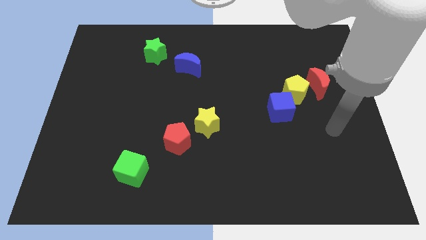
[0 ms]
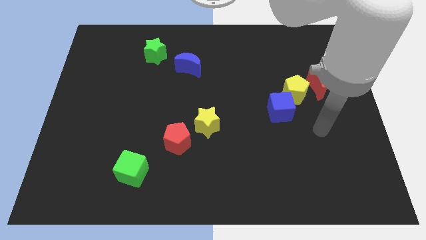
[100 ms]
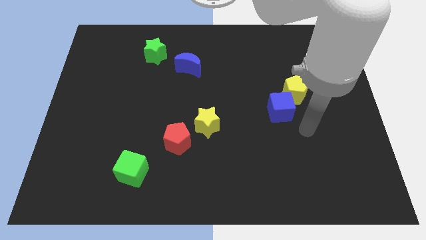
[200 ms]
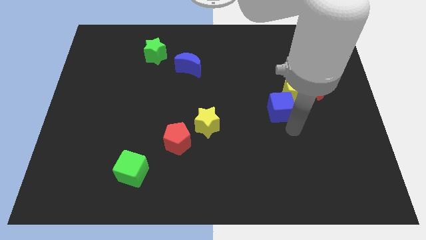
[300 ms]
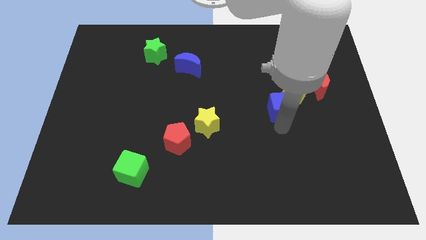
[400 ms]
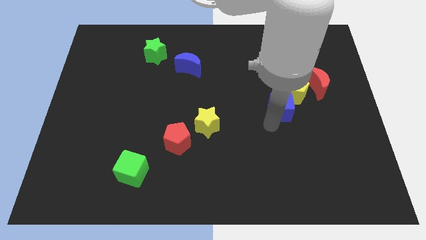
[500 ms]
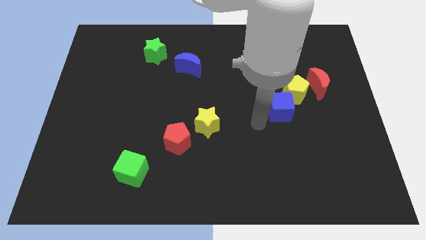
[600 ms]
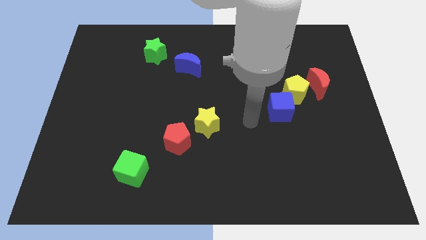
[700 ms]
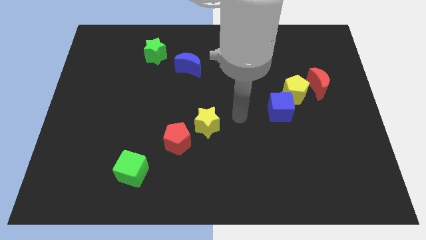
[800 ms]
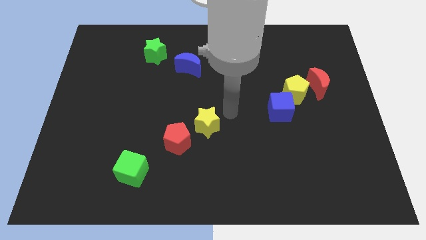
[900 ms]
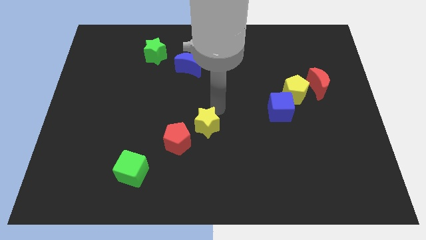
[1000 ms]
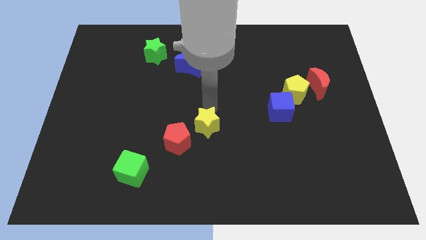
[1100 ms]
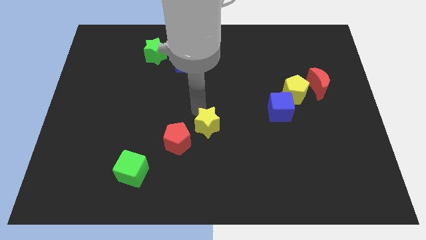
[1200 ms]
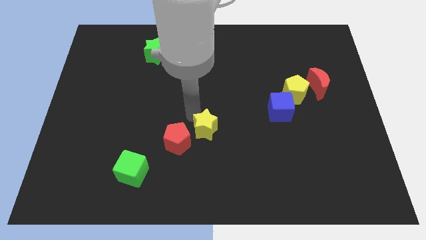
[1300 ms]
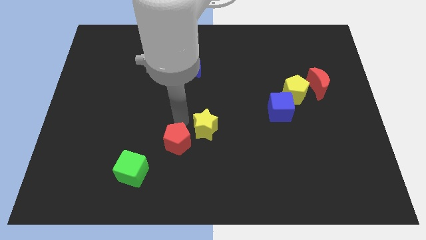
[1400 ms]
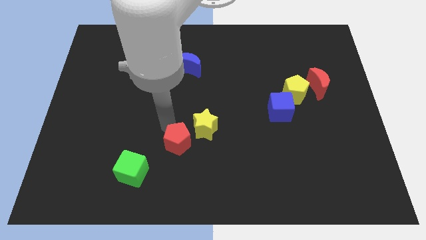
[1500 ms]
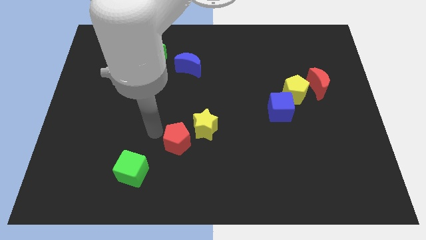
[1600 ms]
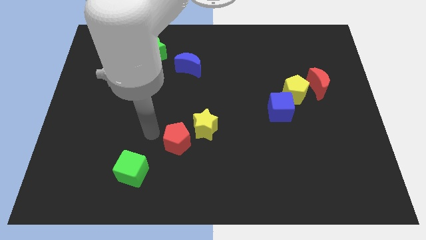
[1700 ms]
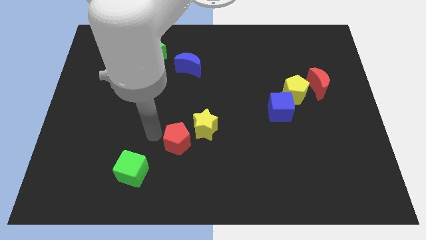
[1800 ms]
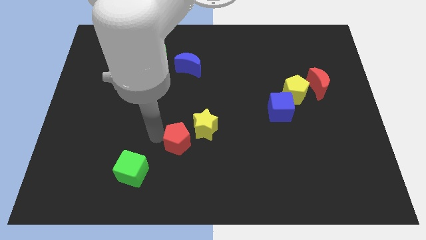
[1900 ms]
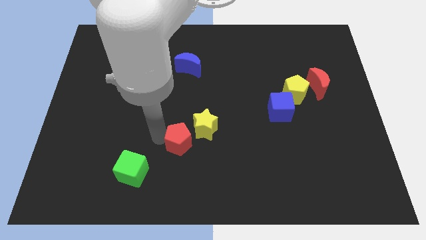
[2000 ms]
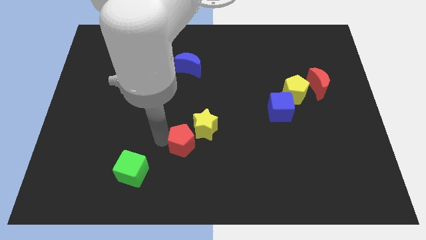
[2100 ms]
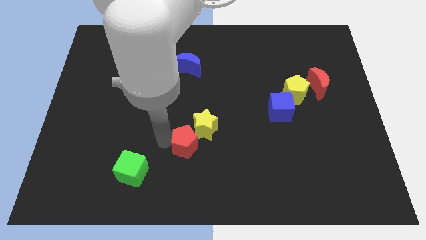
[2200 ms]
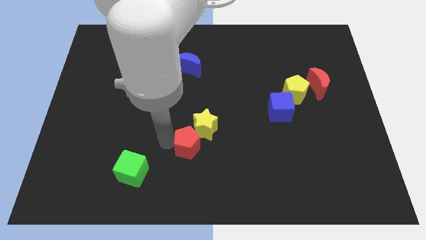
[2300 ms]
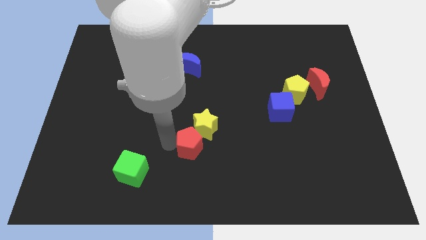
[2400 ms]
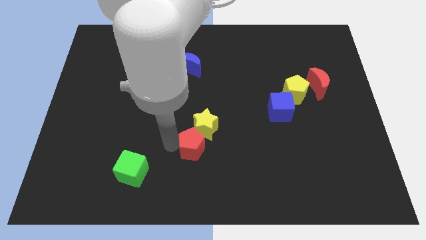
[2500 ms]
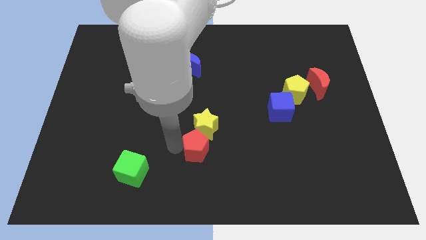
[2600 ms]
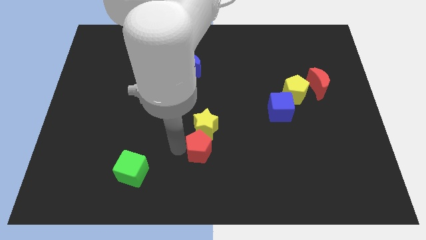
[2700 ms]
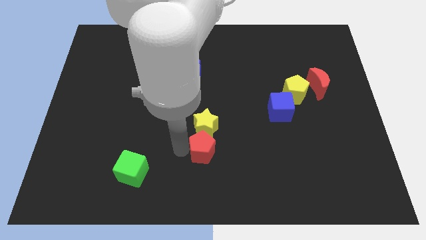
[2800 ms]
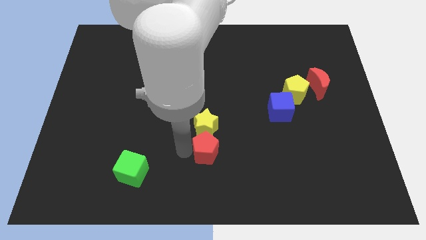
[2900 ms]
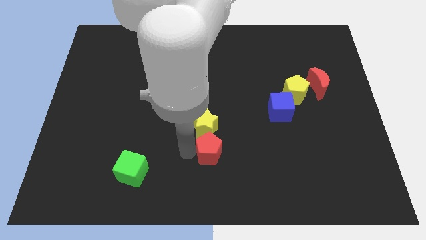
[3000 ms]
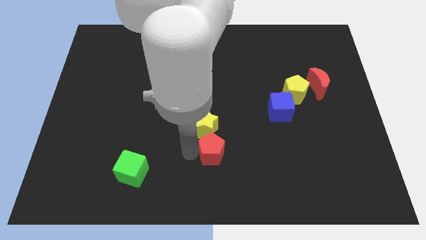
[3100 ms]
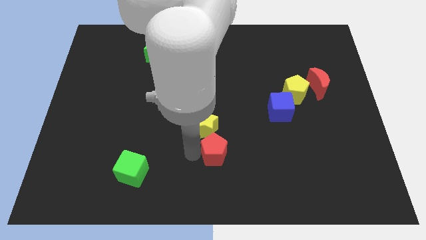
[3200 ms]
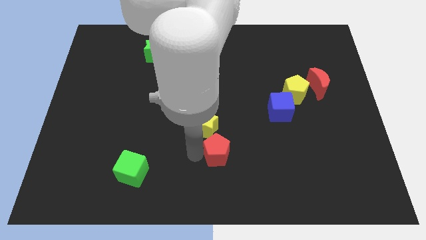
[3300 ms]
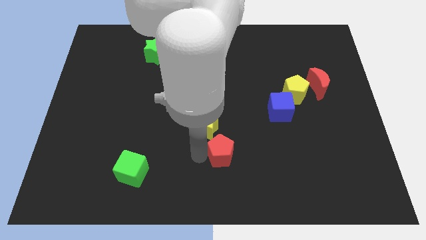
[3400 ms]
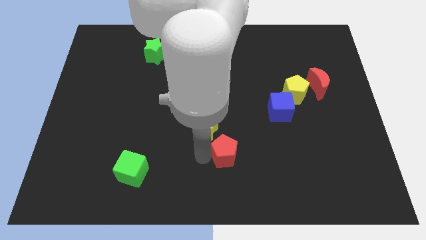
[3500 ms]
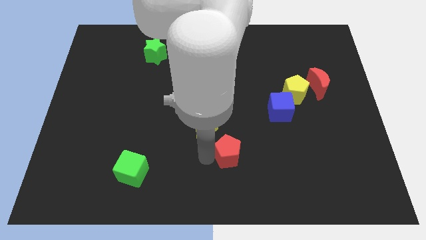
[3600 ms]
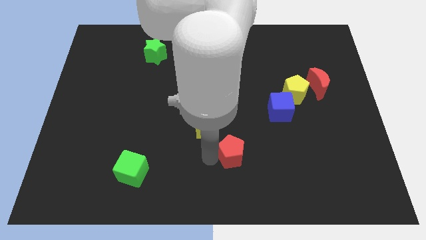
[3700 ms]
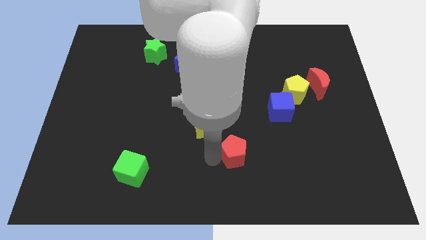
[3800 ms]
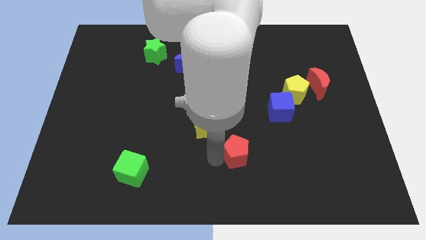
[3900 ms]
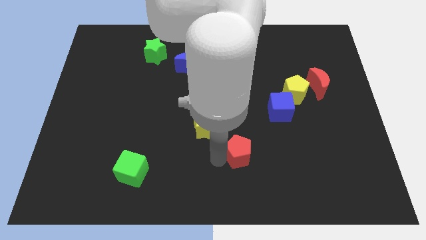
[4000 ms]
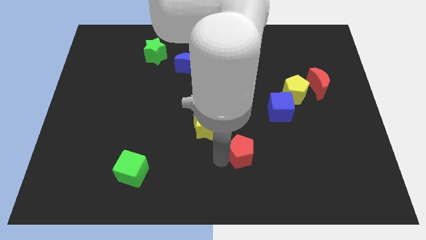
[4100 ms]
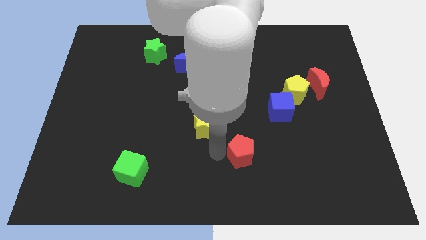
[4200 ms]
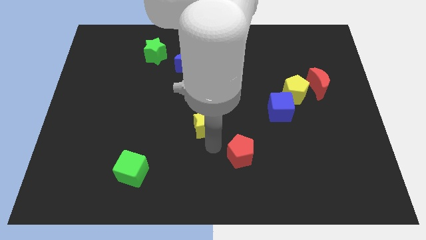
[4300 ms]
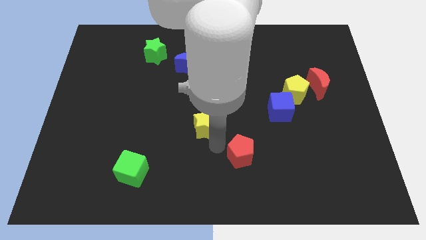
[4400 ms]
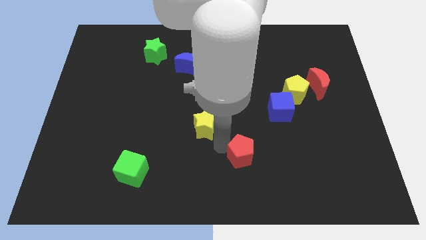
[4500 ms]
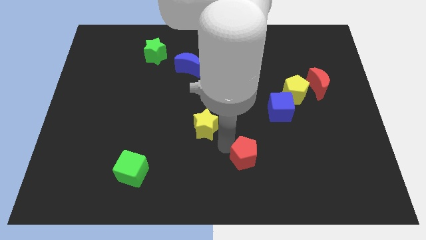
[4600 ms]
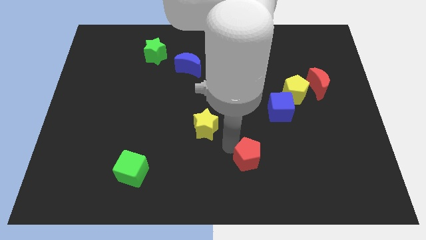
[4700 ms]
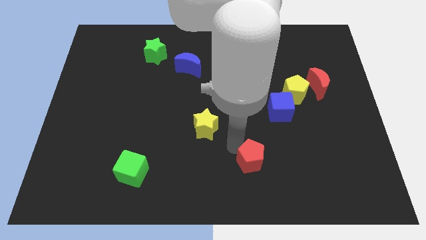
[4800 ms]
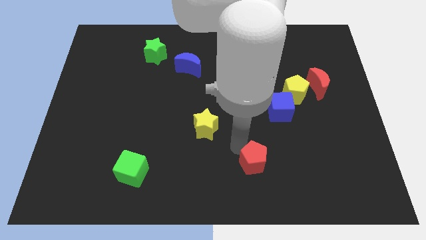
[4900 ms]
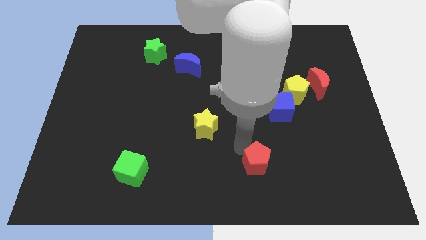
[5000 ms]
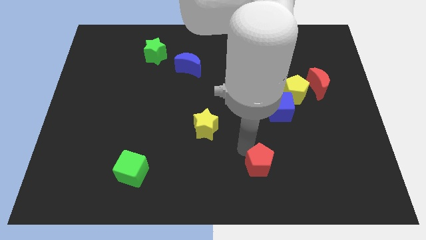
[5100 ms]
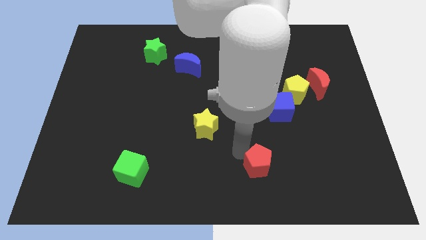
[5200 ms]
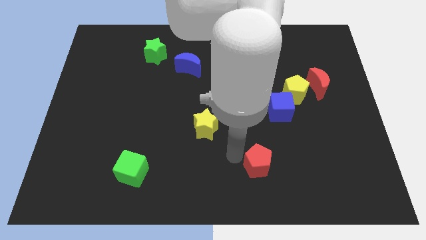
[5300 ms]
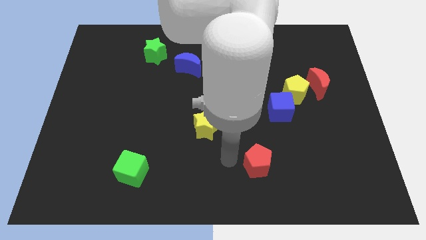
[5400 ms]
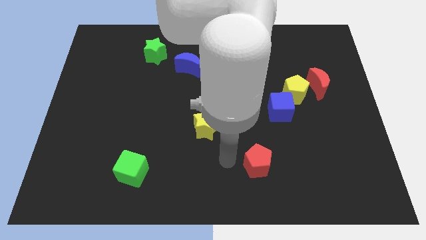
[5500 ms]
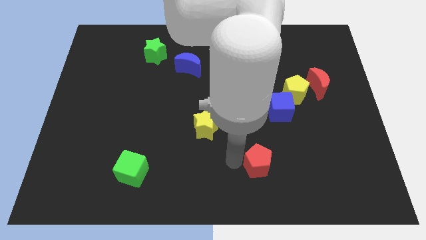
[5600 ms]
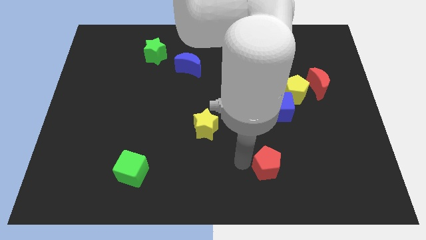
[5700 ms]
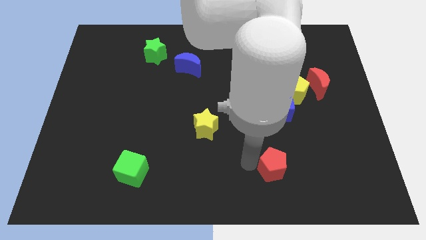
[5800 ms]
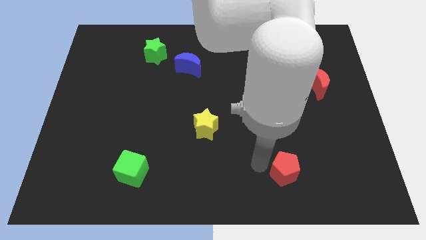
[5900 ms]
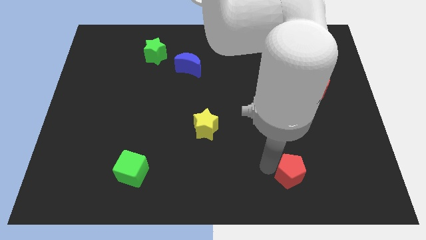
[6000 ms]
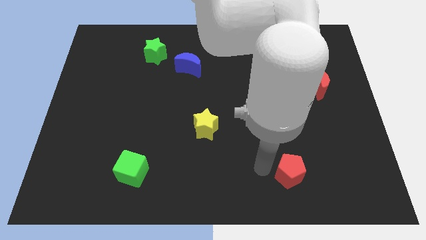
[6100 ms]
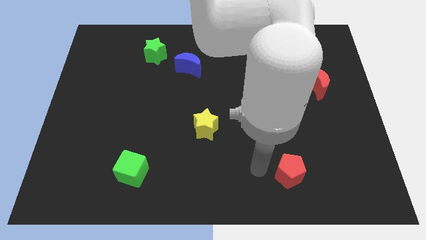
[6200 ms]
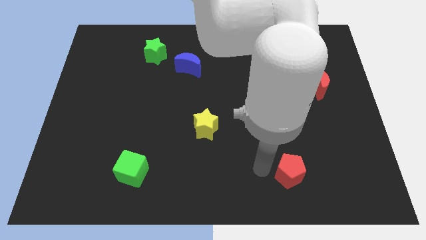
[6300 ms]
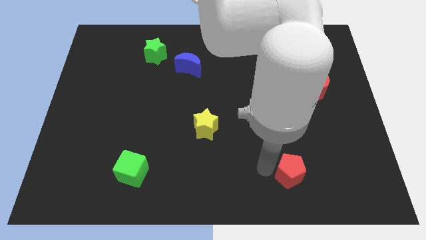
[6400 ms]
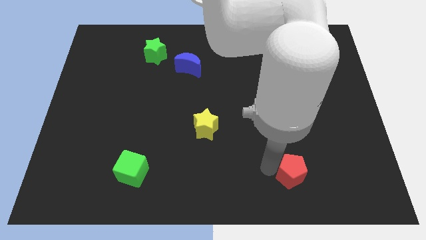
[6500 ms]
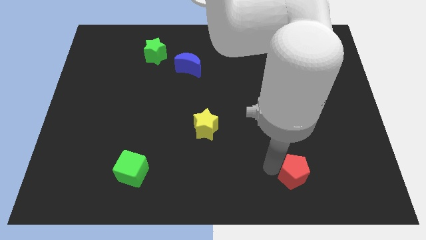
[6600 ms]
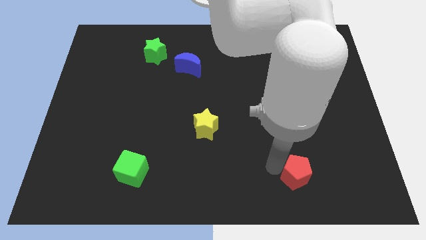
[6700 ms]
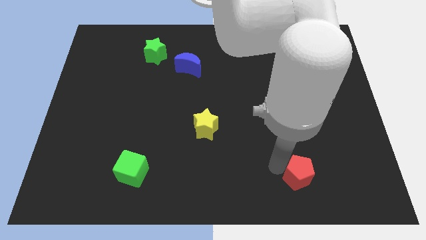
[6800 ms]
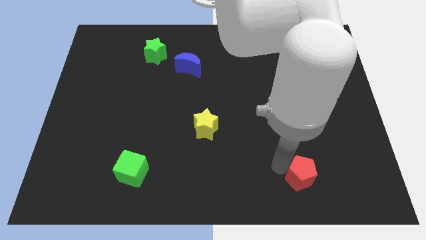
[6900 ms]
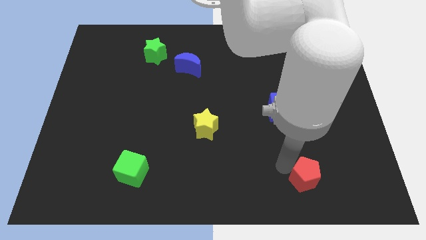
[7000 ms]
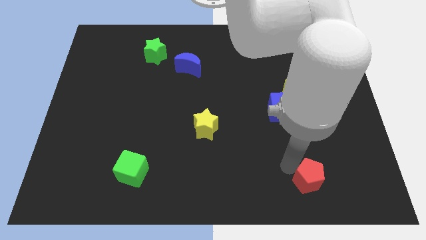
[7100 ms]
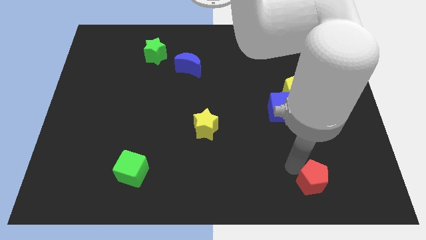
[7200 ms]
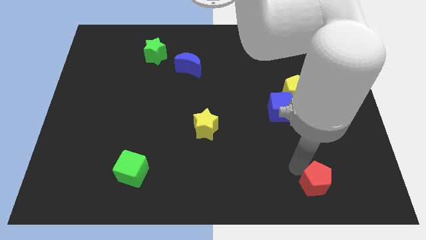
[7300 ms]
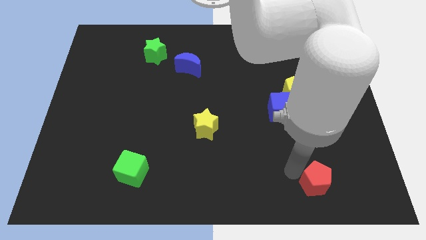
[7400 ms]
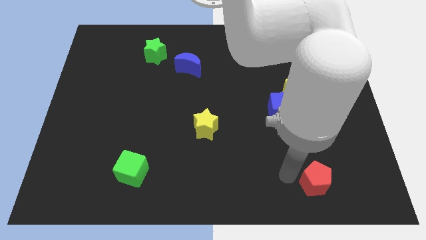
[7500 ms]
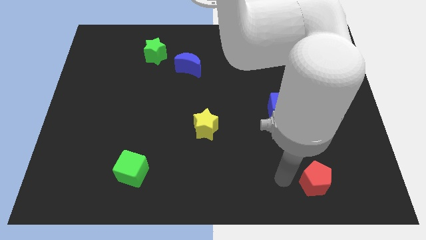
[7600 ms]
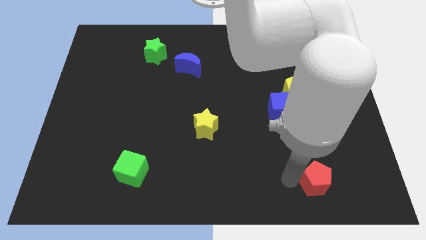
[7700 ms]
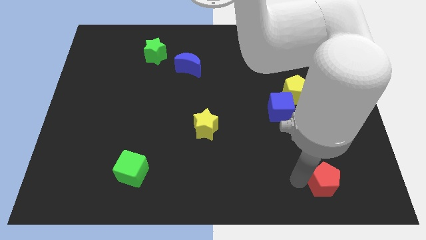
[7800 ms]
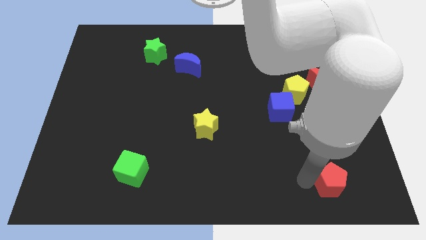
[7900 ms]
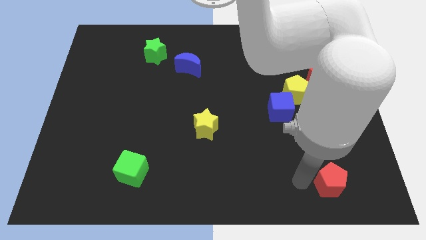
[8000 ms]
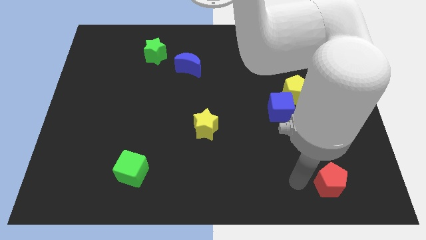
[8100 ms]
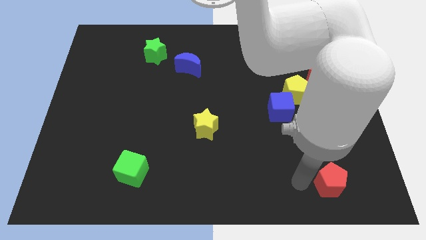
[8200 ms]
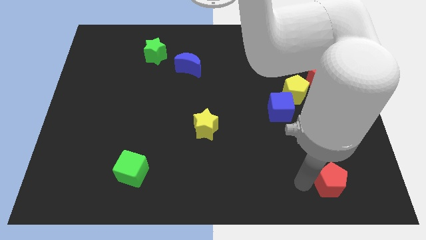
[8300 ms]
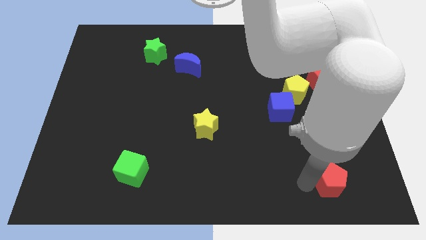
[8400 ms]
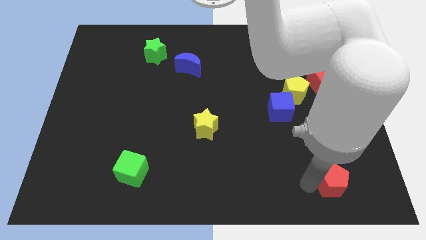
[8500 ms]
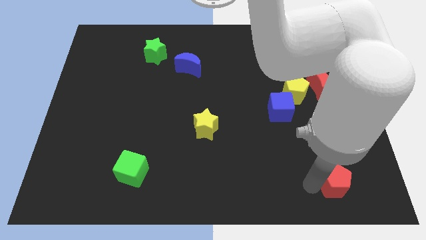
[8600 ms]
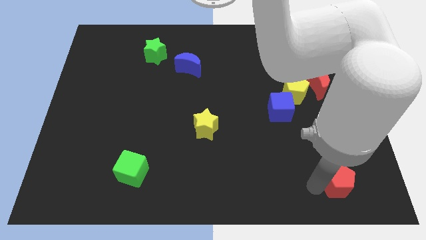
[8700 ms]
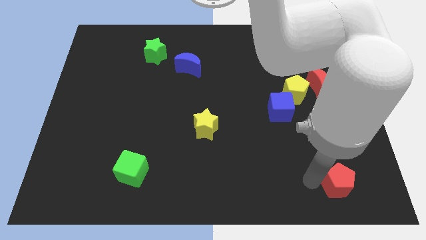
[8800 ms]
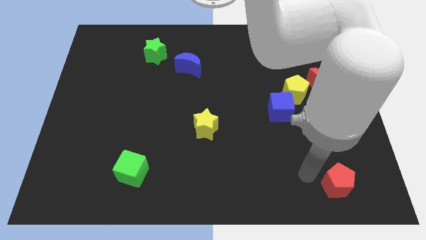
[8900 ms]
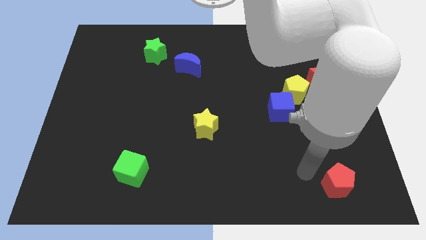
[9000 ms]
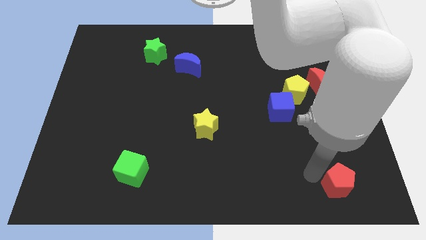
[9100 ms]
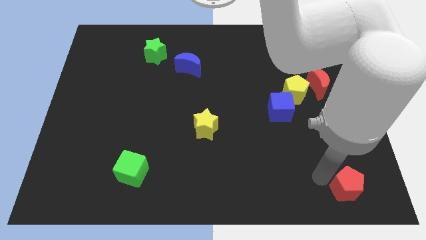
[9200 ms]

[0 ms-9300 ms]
put the red pentagon to the bottom right corner
